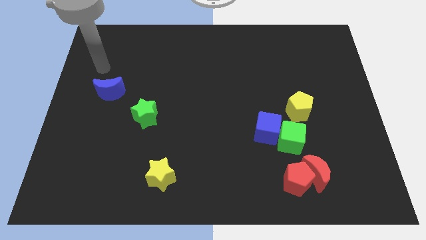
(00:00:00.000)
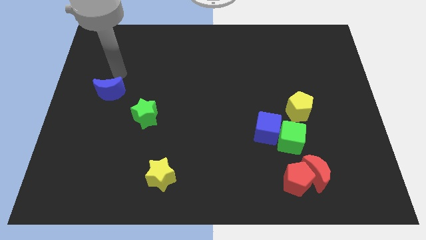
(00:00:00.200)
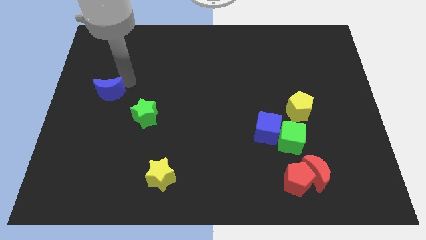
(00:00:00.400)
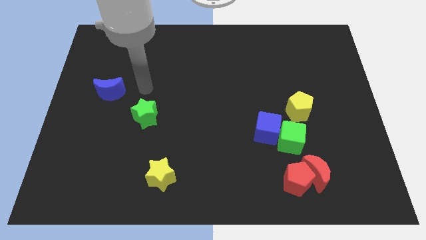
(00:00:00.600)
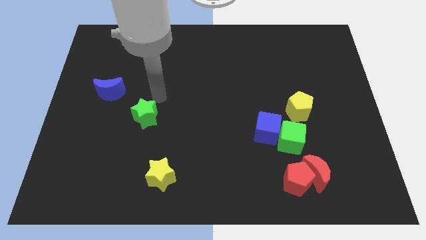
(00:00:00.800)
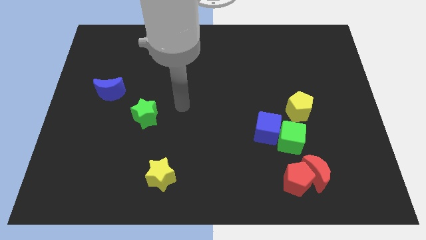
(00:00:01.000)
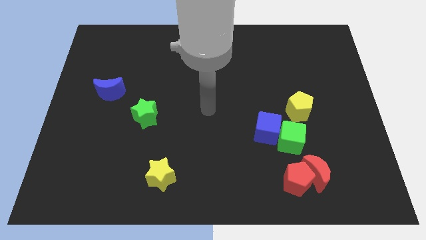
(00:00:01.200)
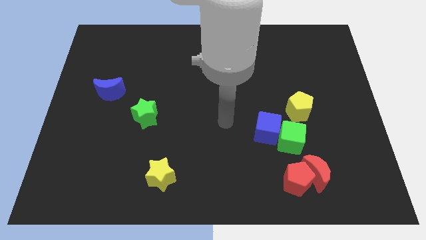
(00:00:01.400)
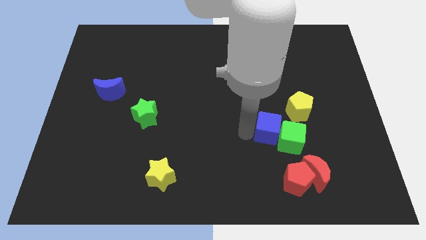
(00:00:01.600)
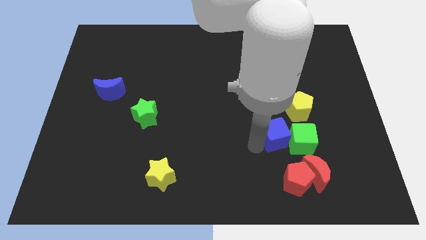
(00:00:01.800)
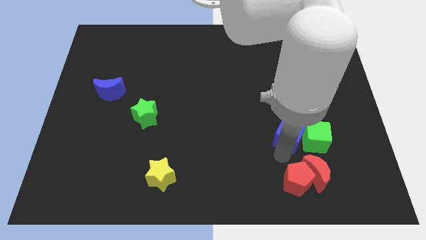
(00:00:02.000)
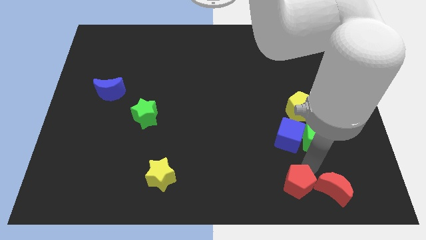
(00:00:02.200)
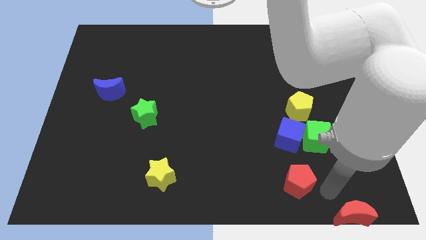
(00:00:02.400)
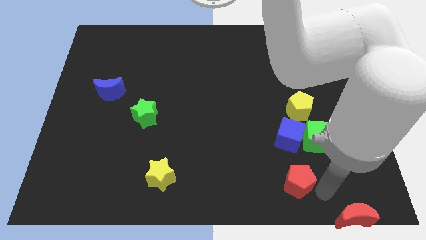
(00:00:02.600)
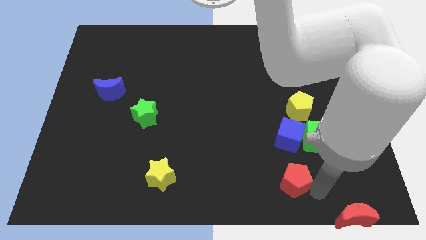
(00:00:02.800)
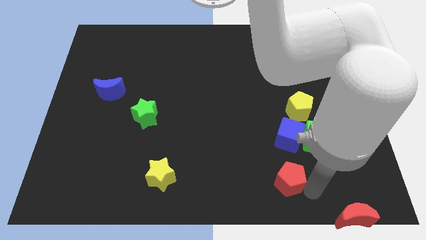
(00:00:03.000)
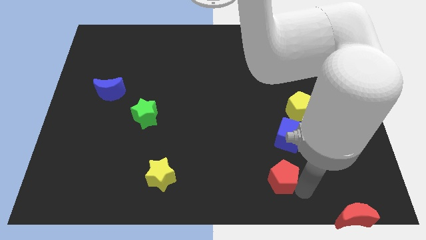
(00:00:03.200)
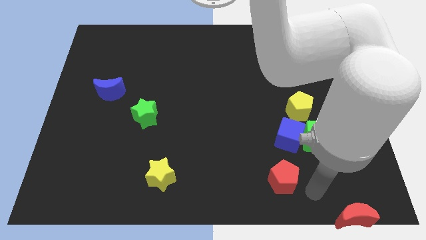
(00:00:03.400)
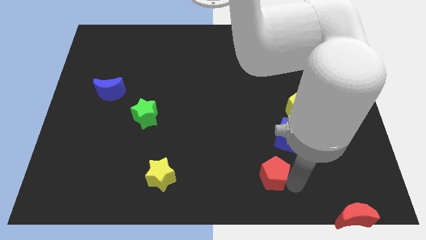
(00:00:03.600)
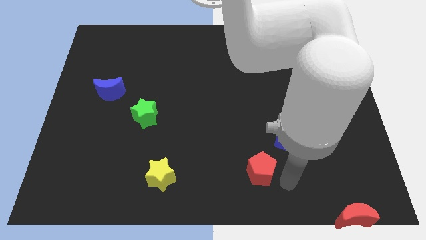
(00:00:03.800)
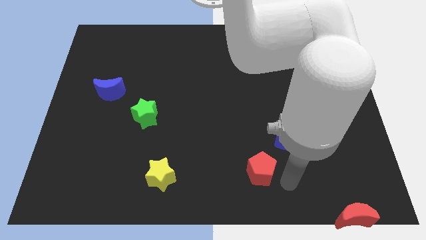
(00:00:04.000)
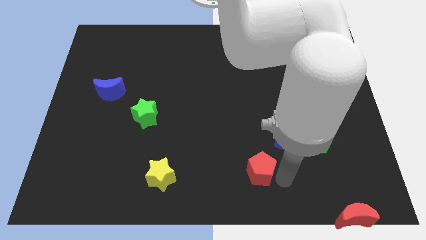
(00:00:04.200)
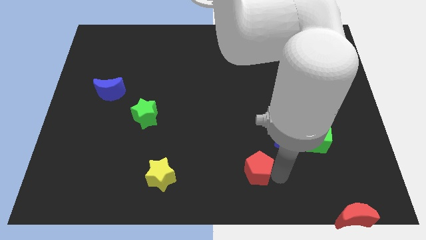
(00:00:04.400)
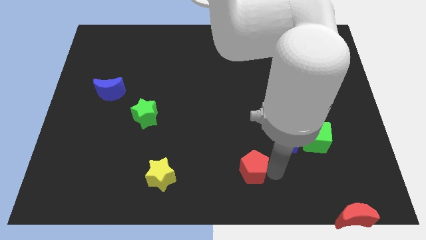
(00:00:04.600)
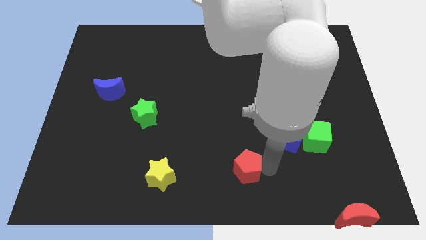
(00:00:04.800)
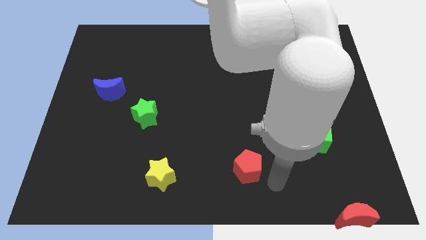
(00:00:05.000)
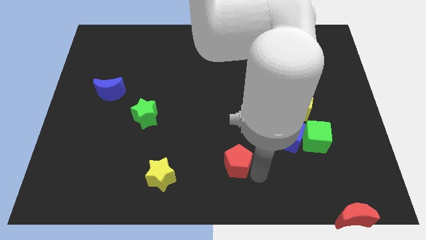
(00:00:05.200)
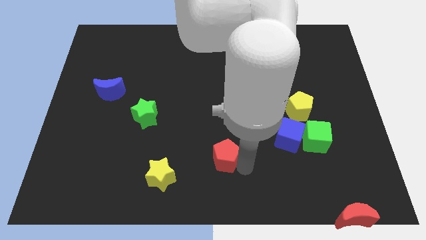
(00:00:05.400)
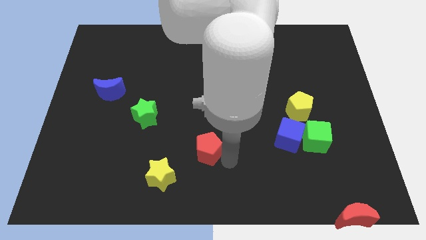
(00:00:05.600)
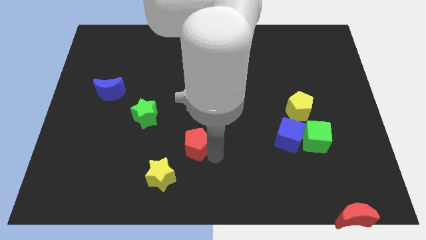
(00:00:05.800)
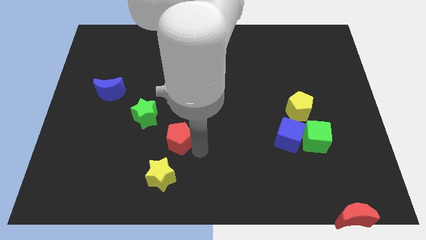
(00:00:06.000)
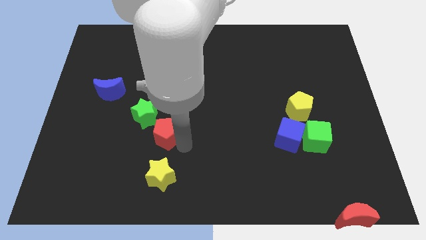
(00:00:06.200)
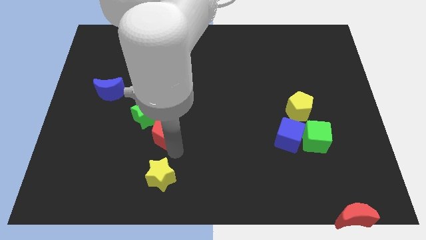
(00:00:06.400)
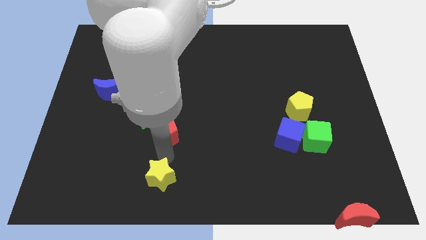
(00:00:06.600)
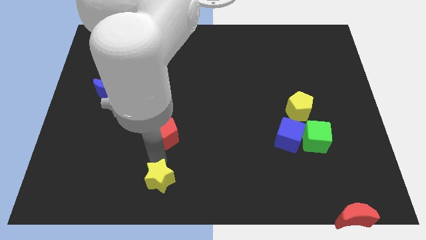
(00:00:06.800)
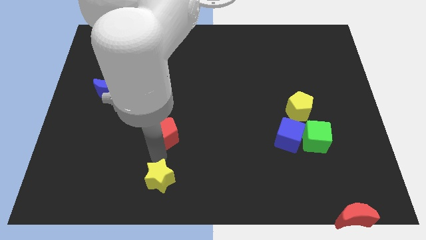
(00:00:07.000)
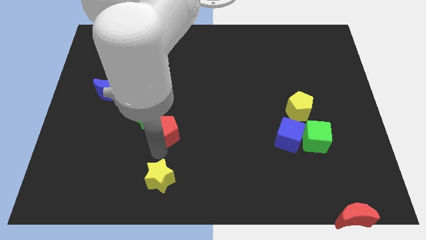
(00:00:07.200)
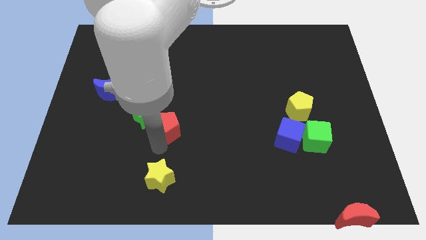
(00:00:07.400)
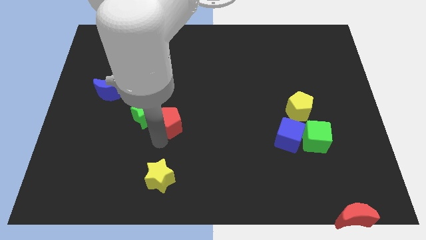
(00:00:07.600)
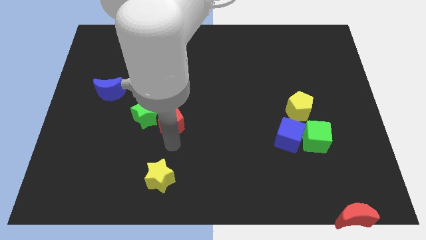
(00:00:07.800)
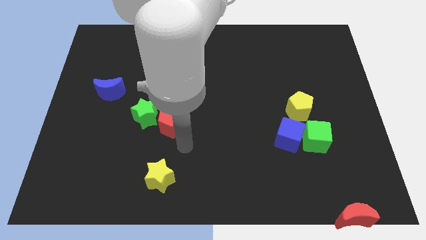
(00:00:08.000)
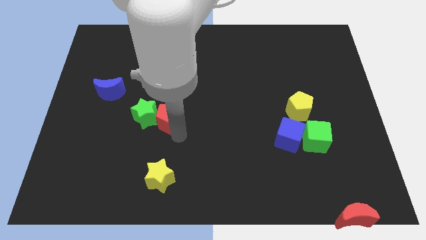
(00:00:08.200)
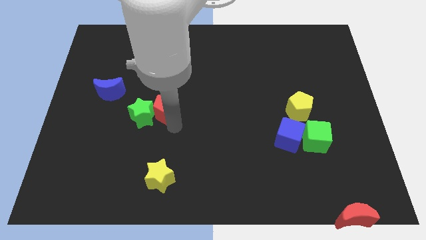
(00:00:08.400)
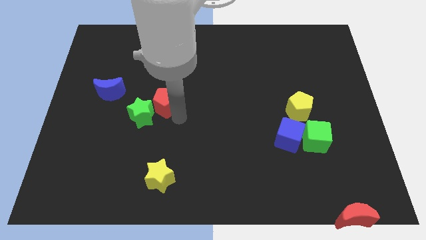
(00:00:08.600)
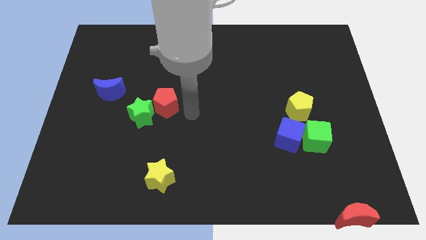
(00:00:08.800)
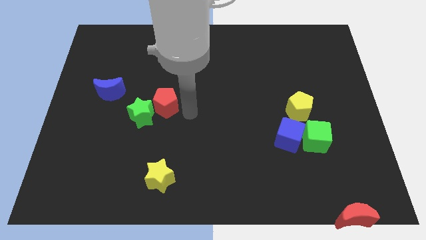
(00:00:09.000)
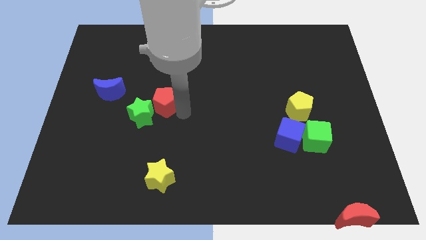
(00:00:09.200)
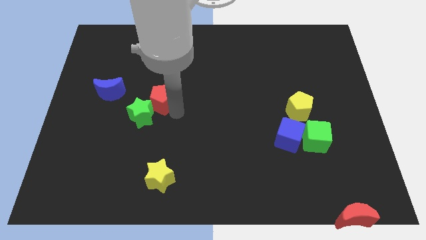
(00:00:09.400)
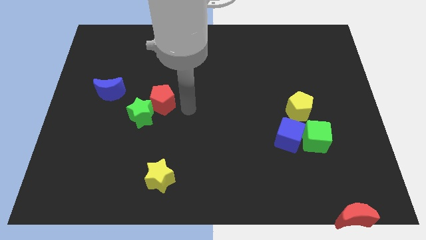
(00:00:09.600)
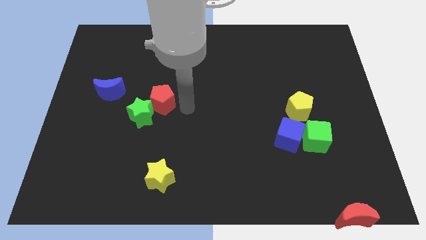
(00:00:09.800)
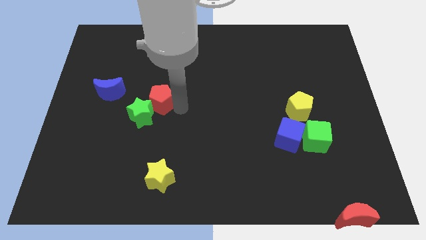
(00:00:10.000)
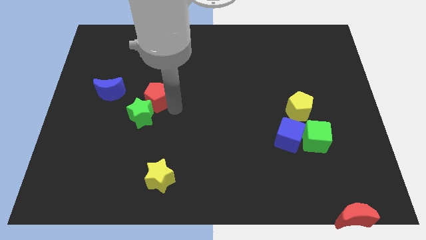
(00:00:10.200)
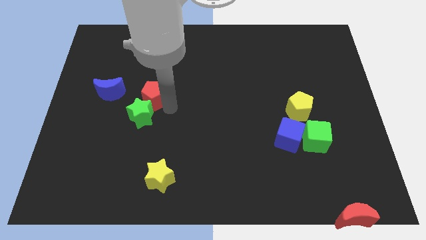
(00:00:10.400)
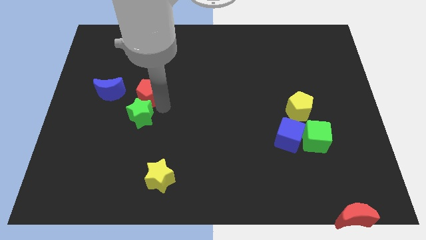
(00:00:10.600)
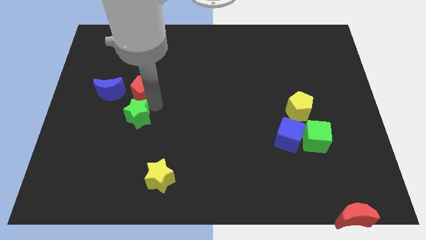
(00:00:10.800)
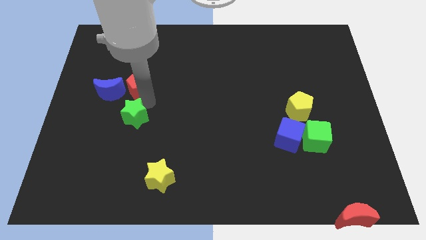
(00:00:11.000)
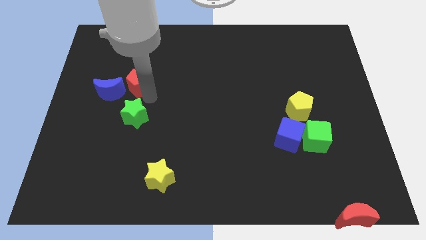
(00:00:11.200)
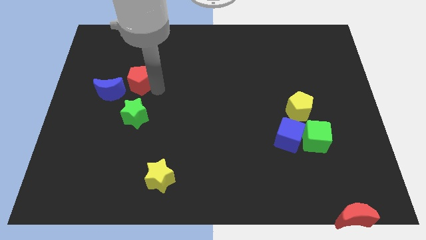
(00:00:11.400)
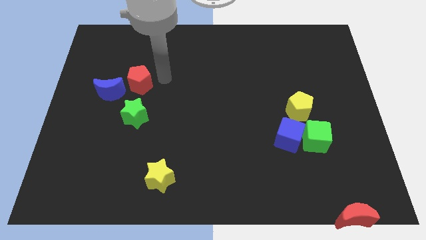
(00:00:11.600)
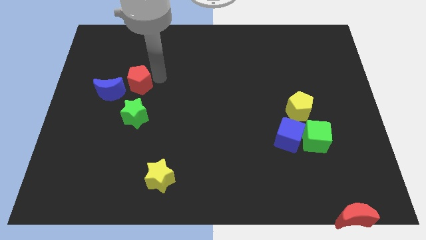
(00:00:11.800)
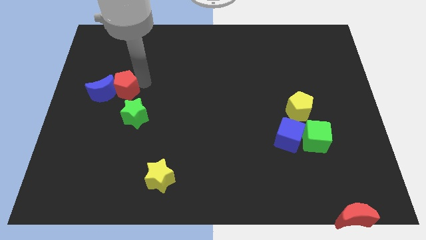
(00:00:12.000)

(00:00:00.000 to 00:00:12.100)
move the red pentagon close to the blue moon

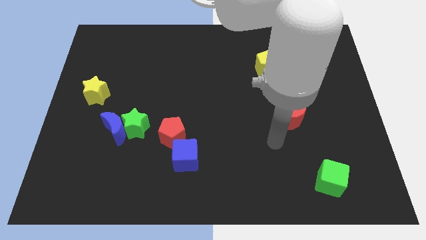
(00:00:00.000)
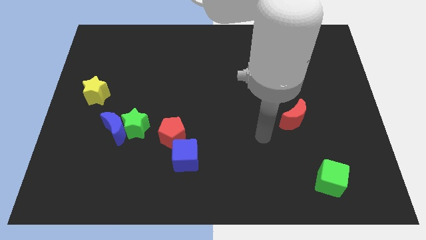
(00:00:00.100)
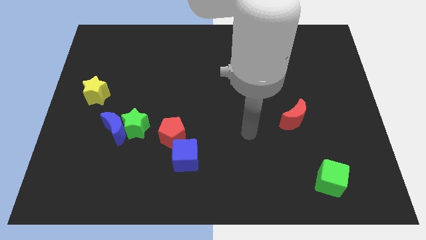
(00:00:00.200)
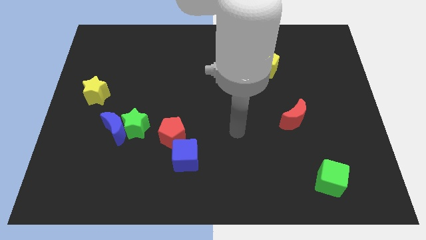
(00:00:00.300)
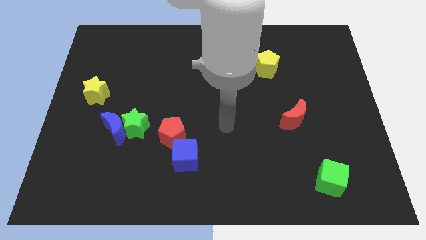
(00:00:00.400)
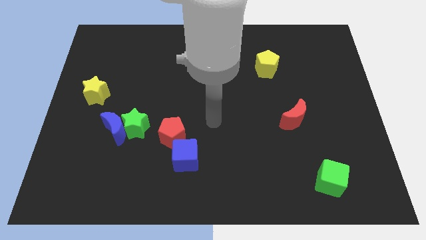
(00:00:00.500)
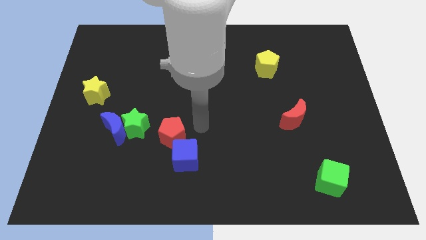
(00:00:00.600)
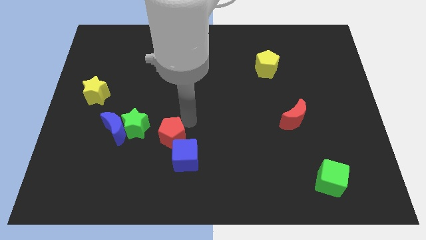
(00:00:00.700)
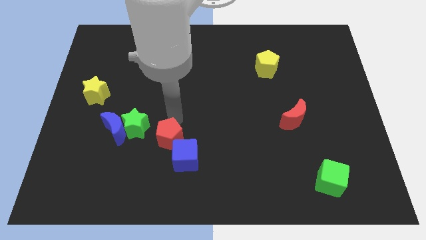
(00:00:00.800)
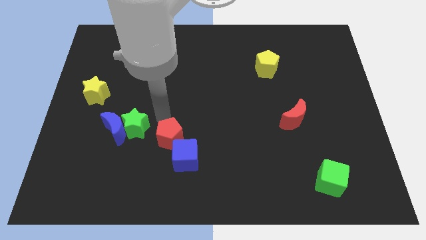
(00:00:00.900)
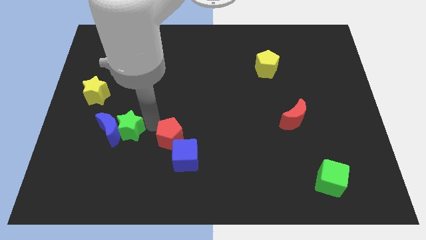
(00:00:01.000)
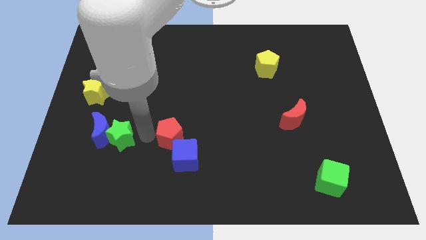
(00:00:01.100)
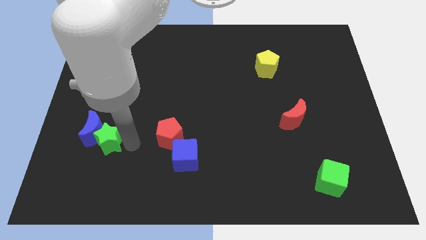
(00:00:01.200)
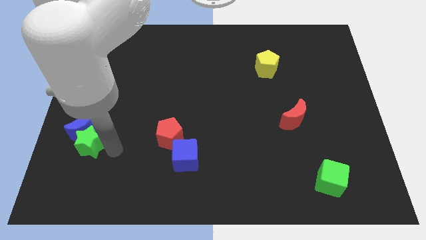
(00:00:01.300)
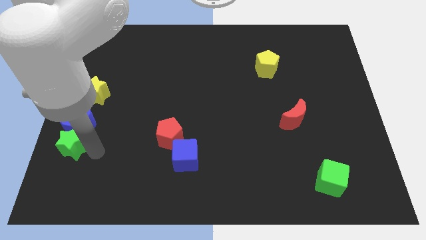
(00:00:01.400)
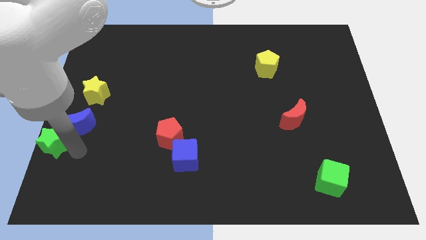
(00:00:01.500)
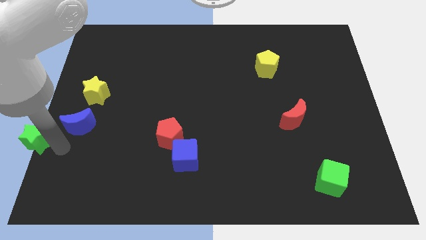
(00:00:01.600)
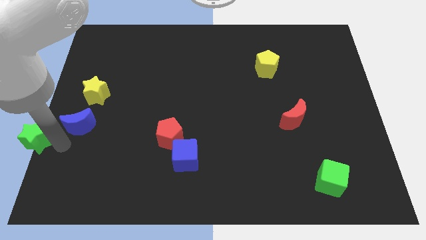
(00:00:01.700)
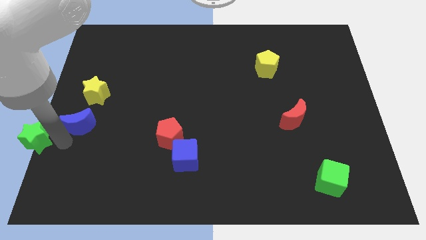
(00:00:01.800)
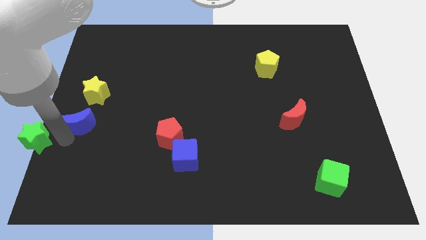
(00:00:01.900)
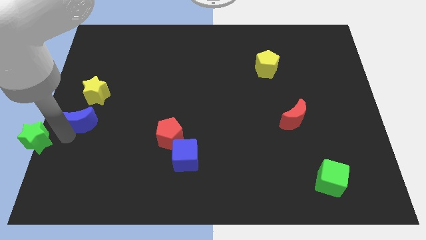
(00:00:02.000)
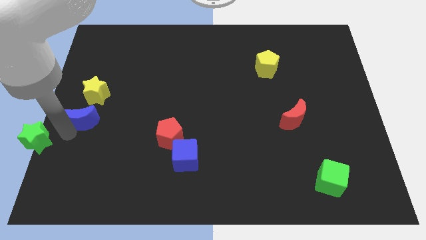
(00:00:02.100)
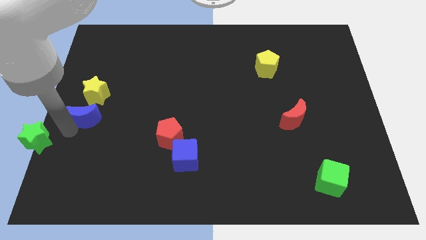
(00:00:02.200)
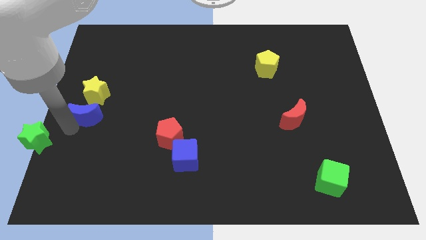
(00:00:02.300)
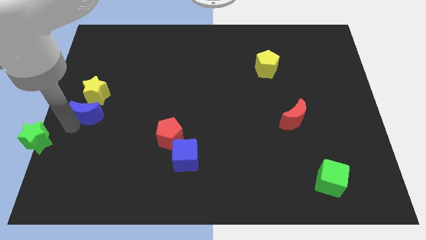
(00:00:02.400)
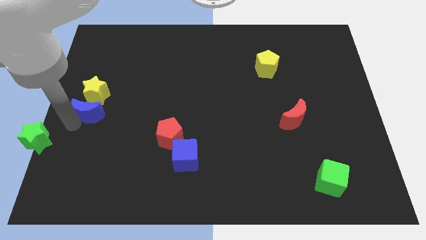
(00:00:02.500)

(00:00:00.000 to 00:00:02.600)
push the blue moon close to the yellow star
